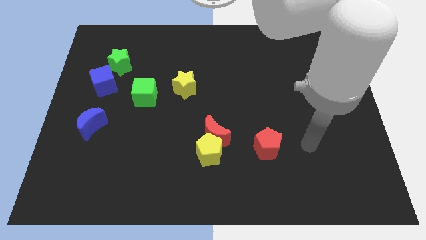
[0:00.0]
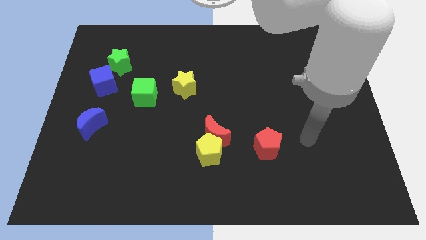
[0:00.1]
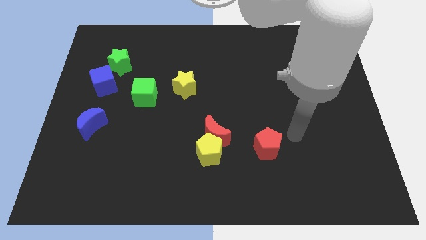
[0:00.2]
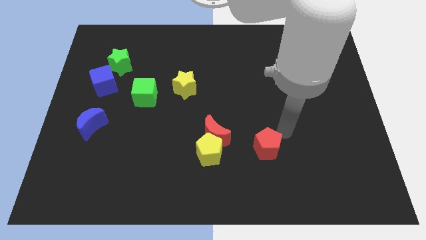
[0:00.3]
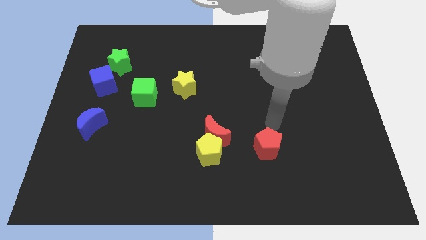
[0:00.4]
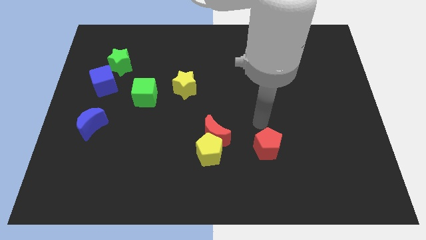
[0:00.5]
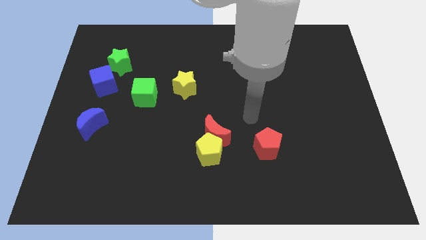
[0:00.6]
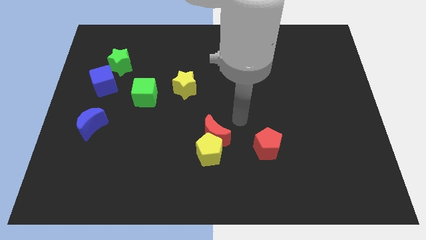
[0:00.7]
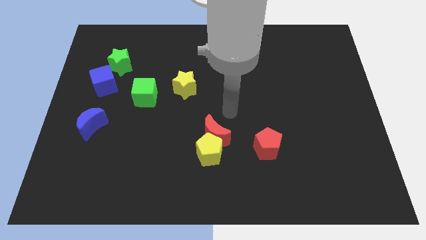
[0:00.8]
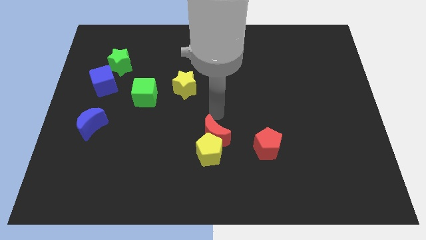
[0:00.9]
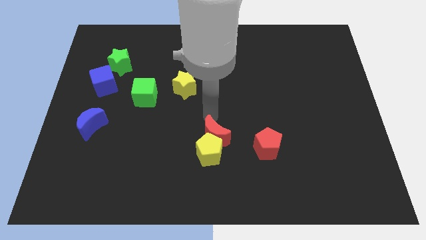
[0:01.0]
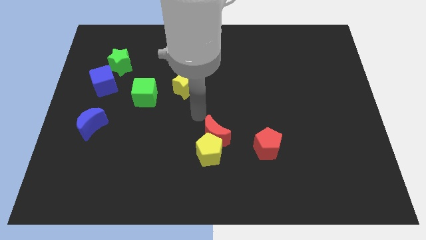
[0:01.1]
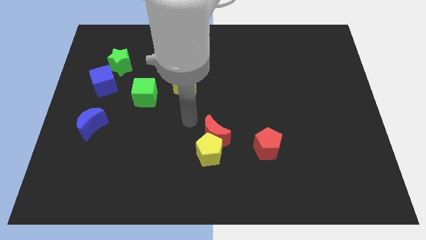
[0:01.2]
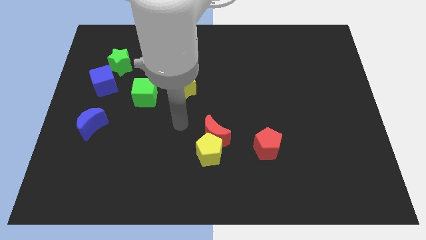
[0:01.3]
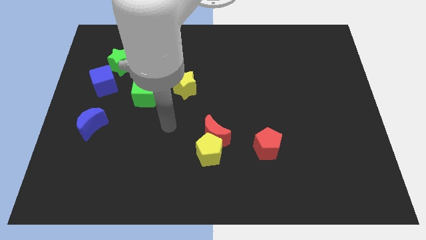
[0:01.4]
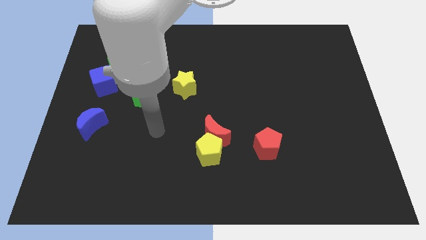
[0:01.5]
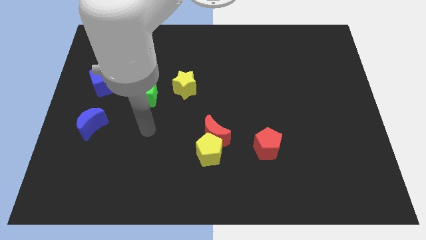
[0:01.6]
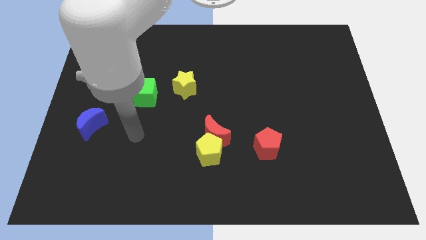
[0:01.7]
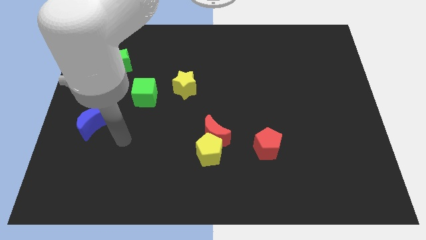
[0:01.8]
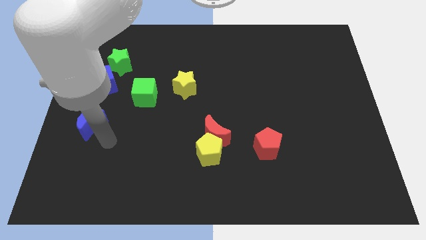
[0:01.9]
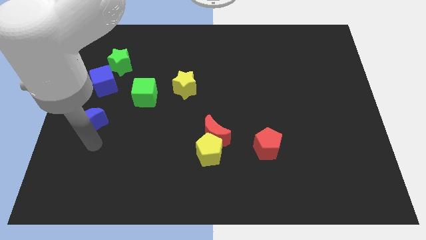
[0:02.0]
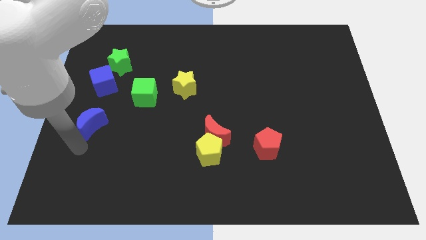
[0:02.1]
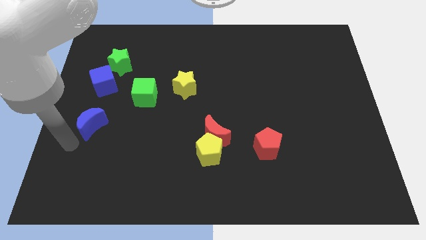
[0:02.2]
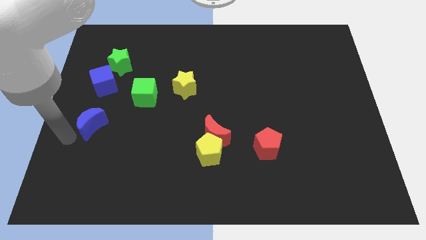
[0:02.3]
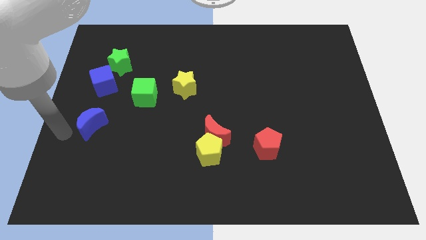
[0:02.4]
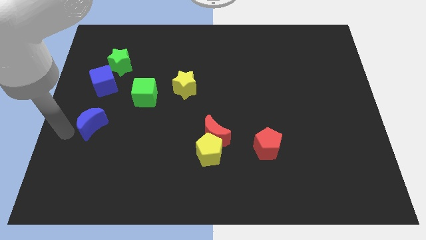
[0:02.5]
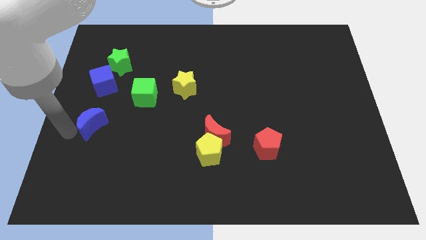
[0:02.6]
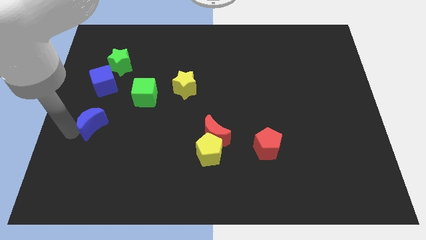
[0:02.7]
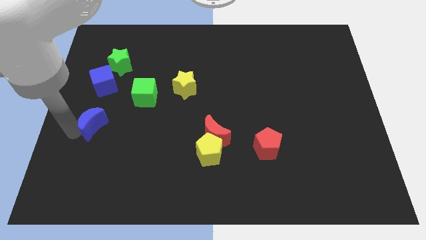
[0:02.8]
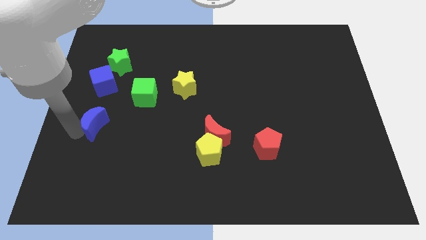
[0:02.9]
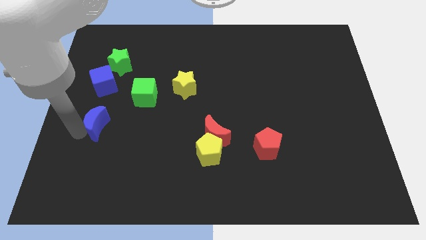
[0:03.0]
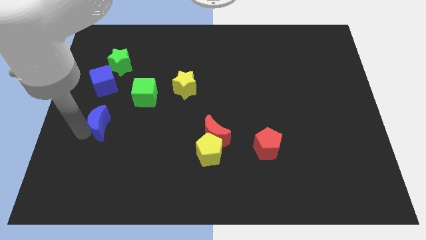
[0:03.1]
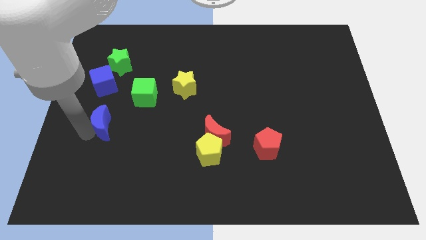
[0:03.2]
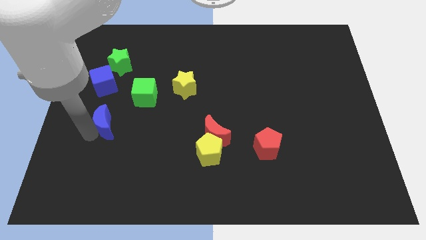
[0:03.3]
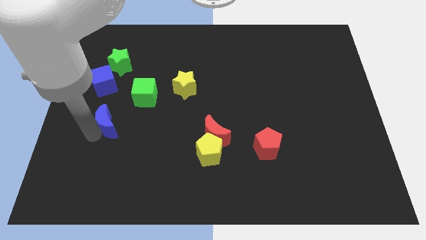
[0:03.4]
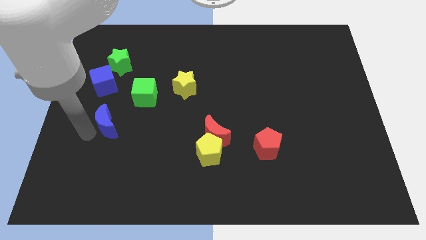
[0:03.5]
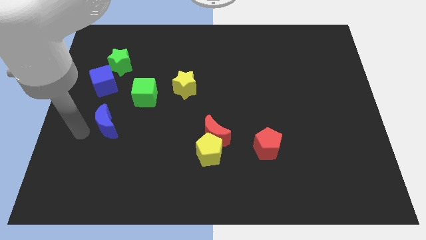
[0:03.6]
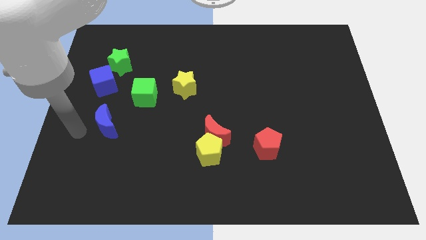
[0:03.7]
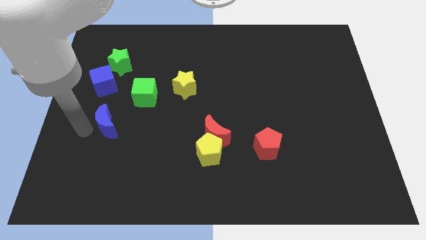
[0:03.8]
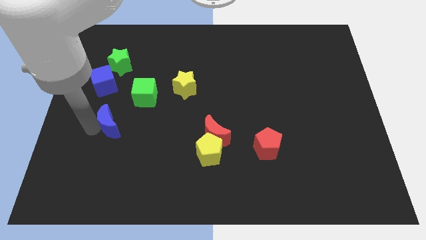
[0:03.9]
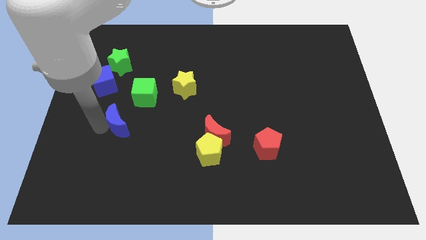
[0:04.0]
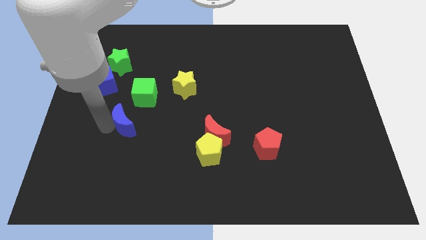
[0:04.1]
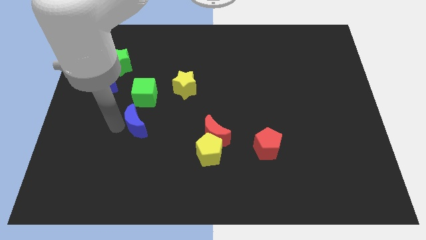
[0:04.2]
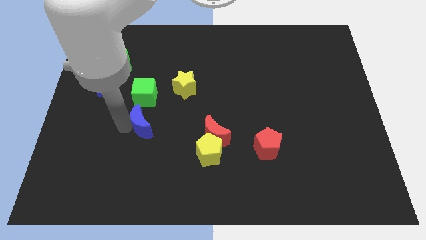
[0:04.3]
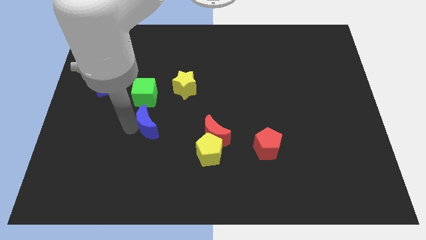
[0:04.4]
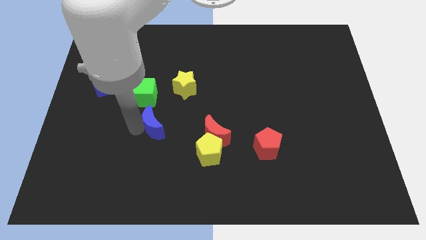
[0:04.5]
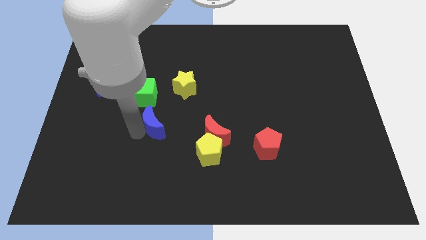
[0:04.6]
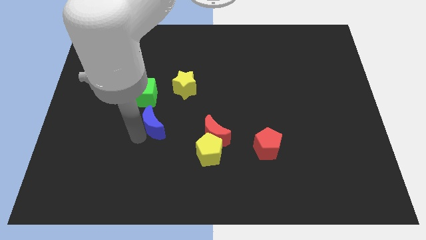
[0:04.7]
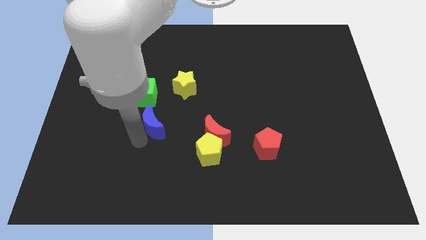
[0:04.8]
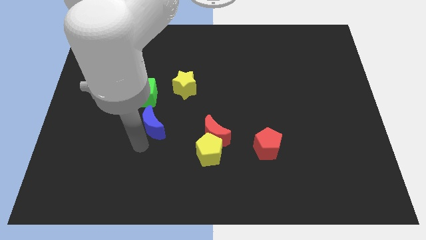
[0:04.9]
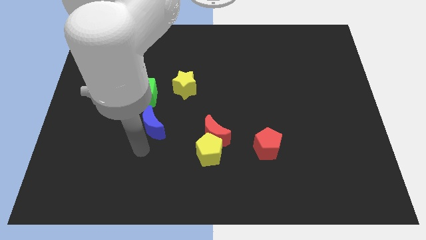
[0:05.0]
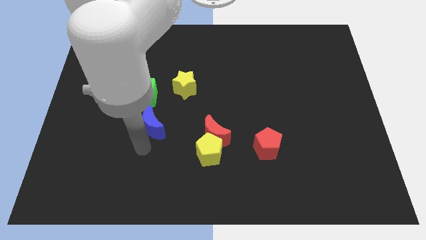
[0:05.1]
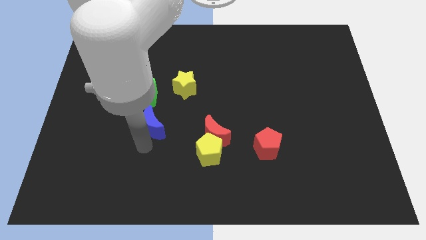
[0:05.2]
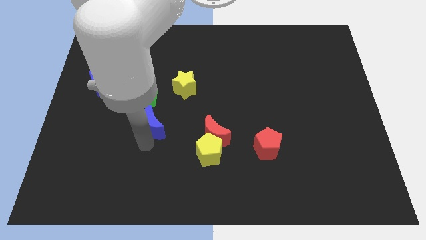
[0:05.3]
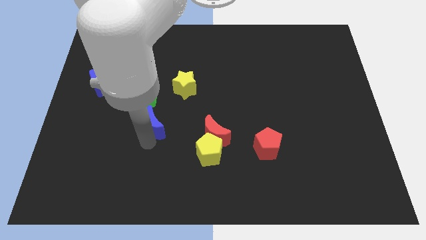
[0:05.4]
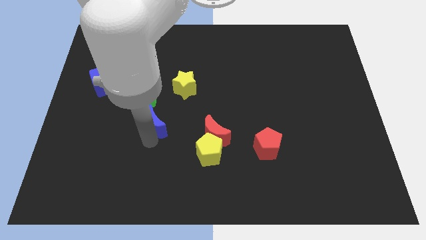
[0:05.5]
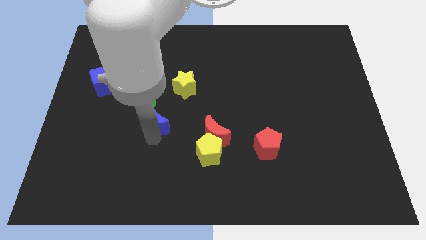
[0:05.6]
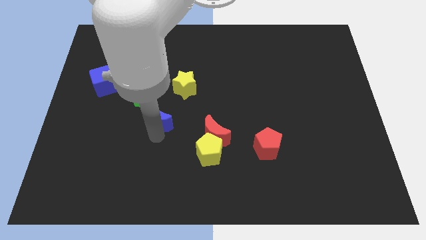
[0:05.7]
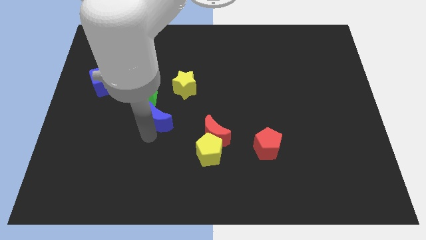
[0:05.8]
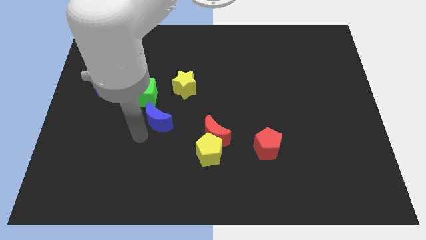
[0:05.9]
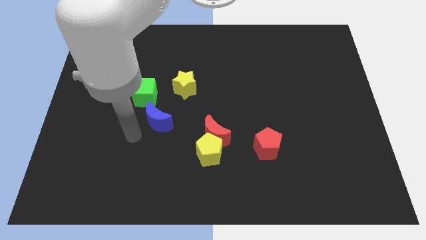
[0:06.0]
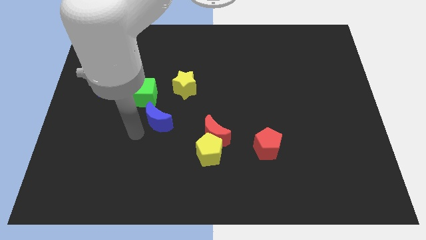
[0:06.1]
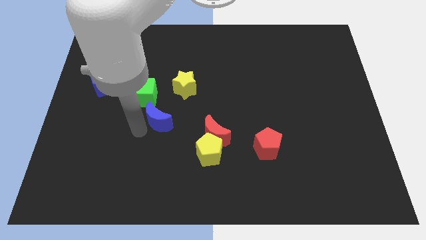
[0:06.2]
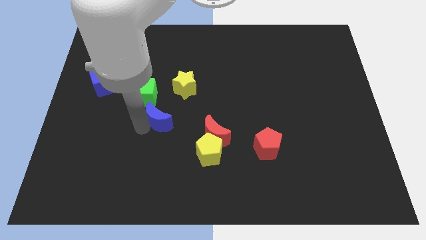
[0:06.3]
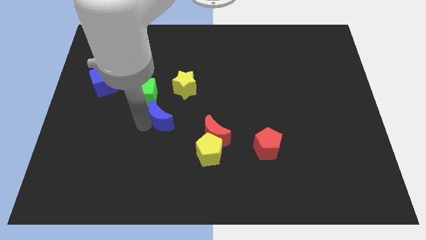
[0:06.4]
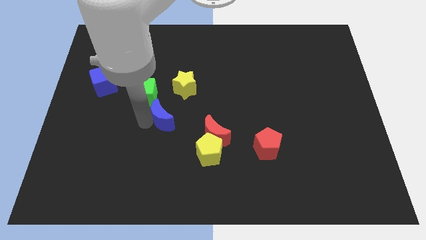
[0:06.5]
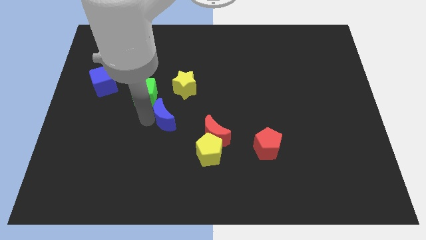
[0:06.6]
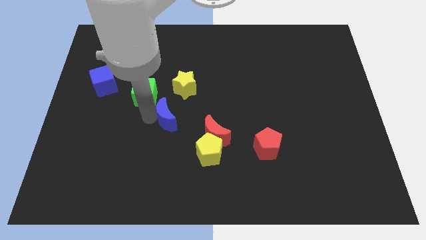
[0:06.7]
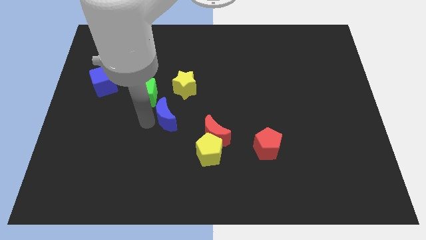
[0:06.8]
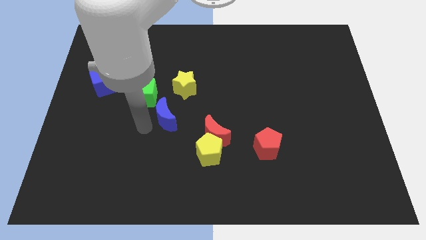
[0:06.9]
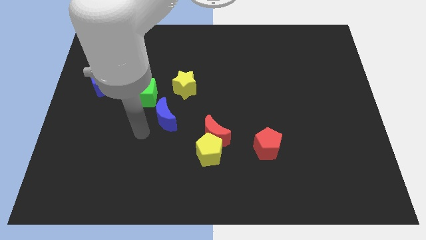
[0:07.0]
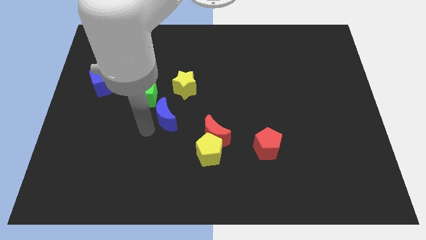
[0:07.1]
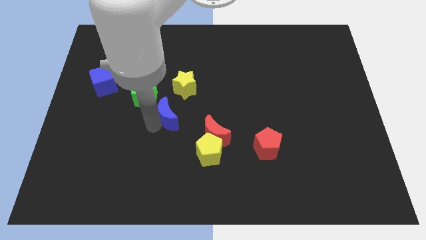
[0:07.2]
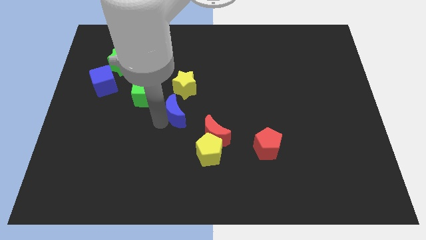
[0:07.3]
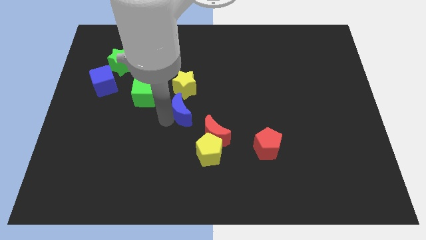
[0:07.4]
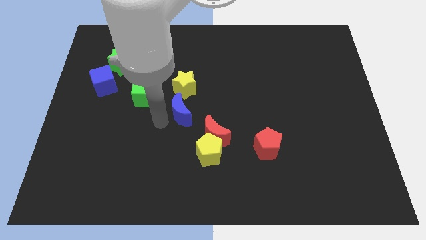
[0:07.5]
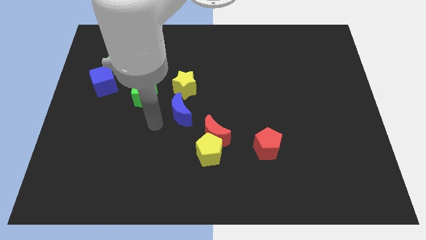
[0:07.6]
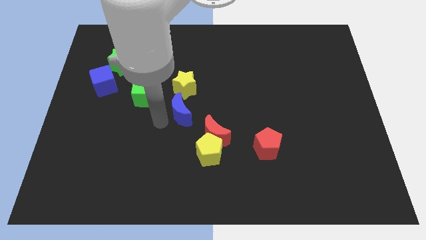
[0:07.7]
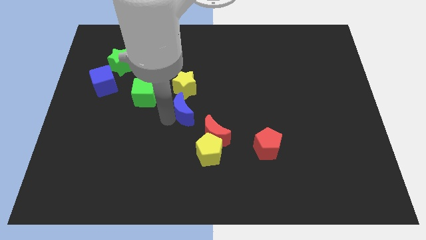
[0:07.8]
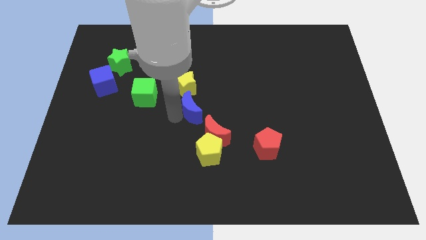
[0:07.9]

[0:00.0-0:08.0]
push the blue moon to the bottom right of the yellow star
